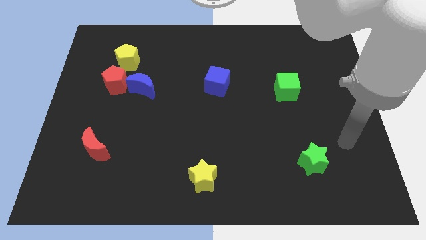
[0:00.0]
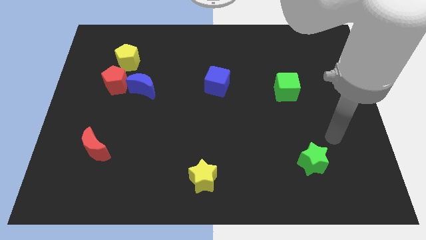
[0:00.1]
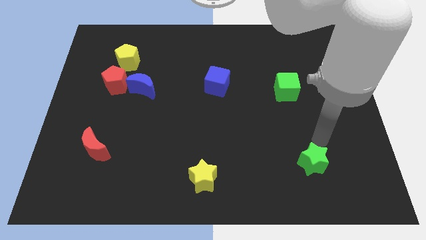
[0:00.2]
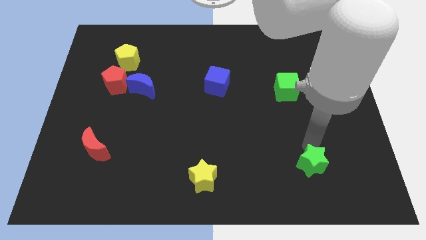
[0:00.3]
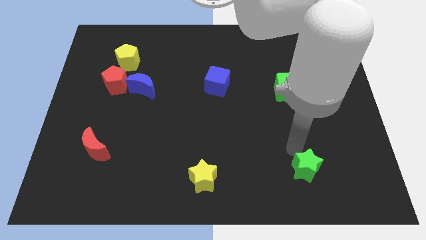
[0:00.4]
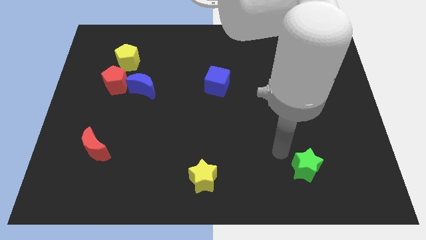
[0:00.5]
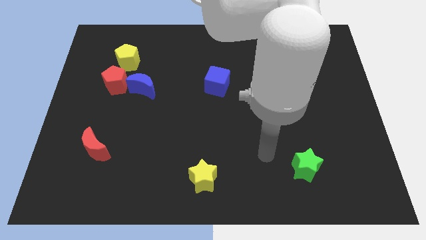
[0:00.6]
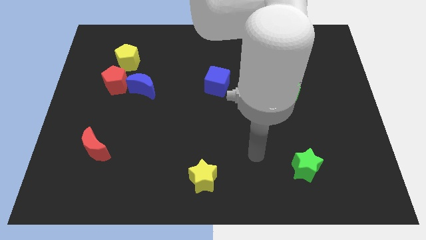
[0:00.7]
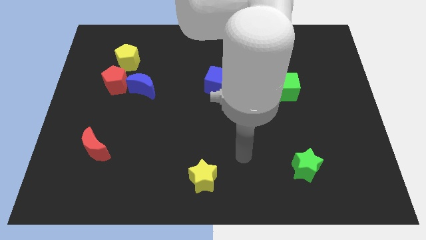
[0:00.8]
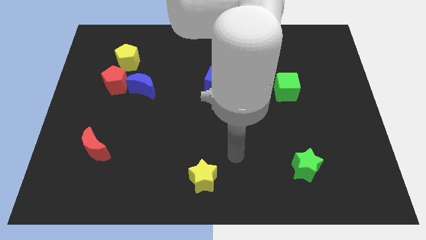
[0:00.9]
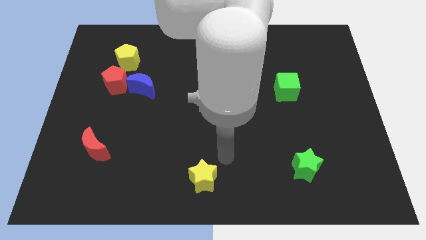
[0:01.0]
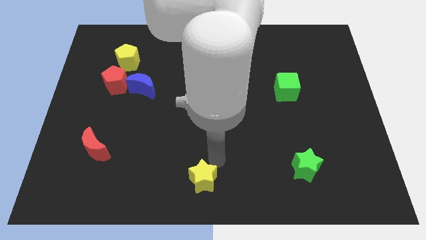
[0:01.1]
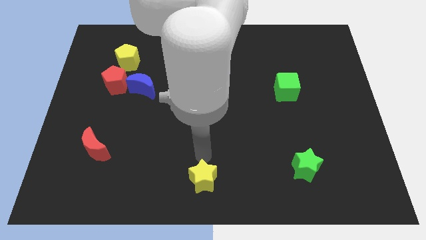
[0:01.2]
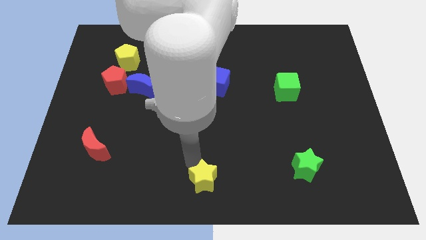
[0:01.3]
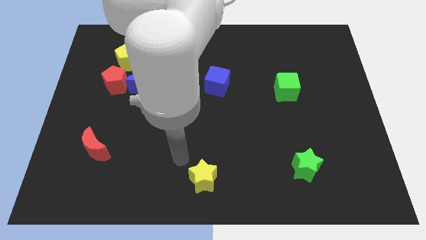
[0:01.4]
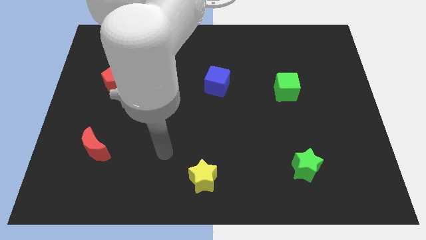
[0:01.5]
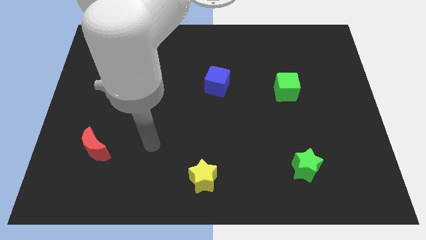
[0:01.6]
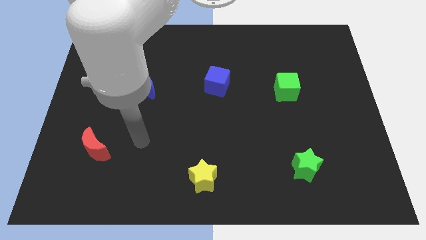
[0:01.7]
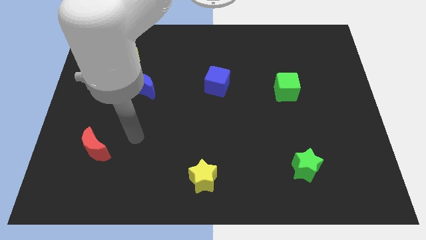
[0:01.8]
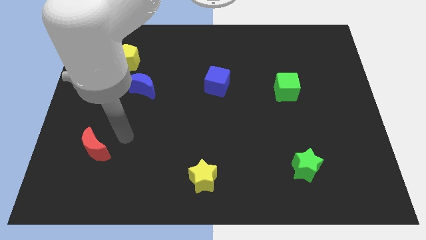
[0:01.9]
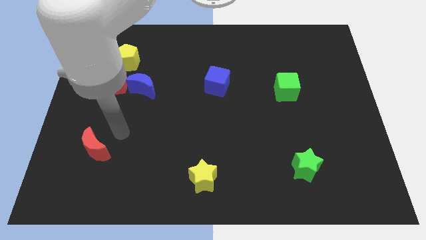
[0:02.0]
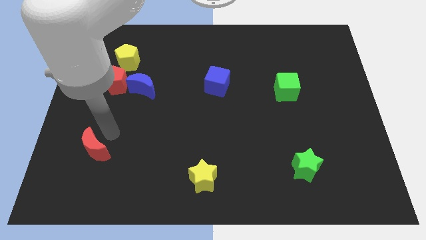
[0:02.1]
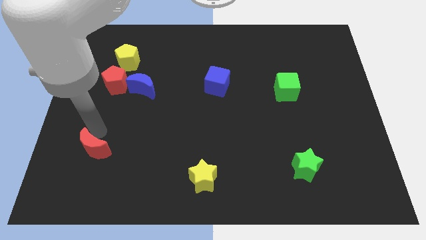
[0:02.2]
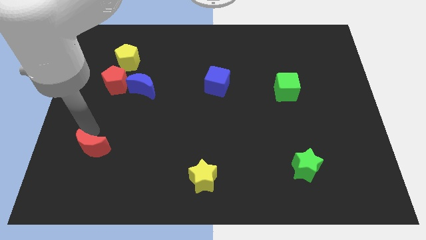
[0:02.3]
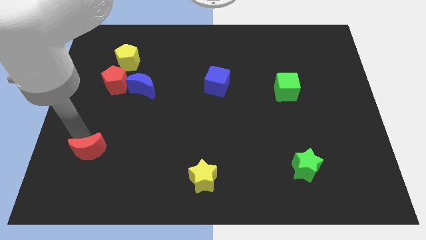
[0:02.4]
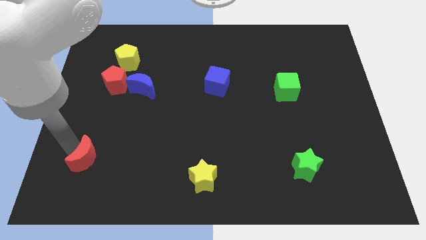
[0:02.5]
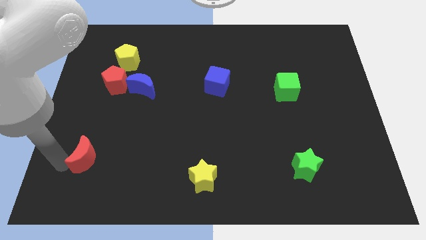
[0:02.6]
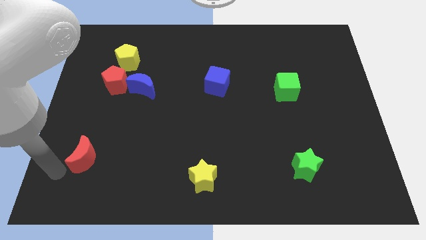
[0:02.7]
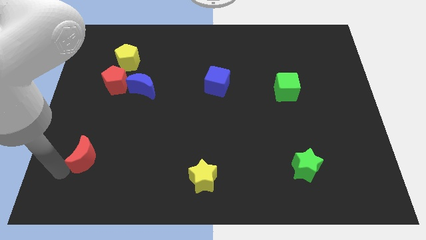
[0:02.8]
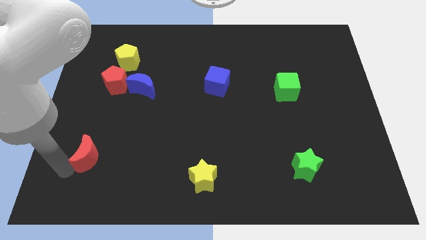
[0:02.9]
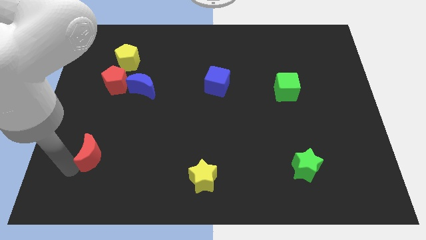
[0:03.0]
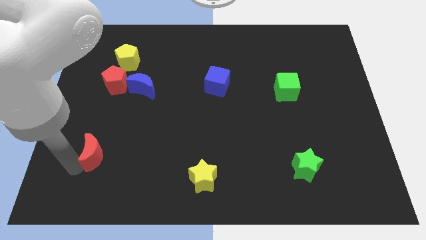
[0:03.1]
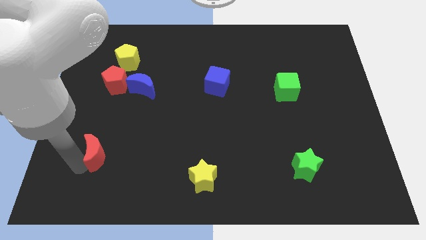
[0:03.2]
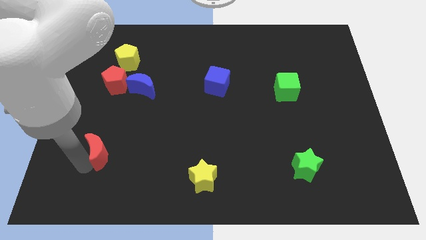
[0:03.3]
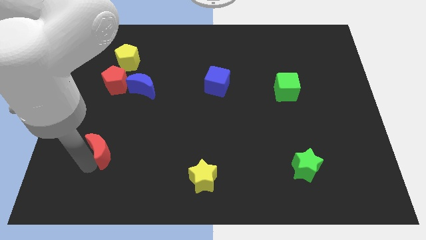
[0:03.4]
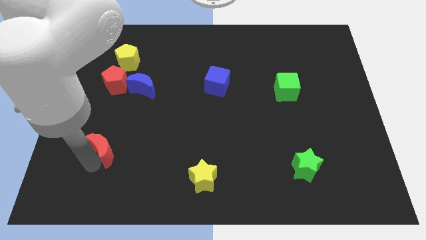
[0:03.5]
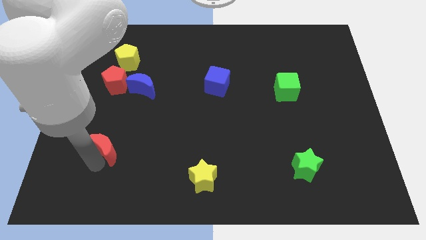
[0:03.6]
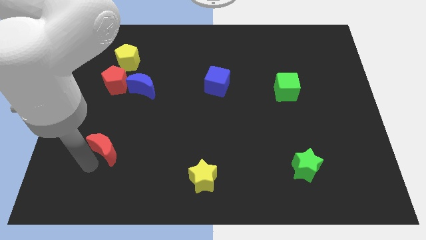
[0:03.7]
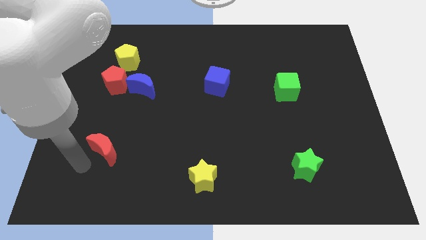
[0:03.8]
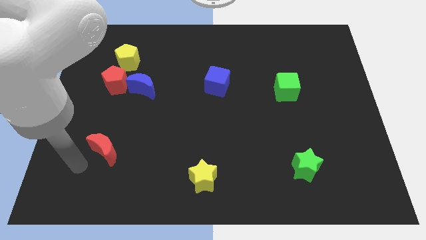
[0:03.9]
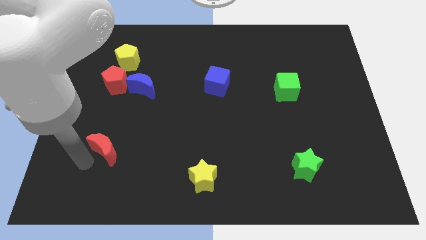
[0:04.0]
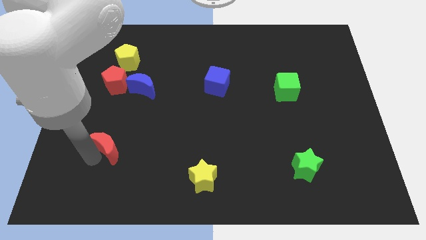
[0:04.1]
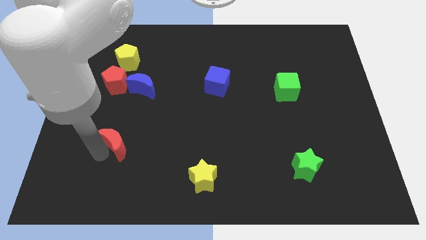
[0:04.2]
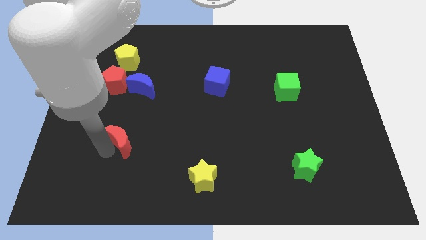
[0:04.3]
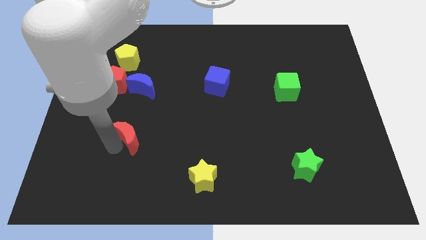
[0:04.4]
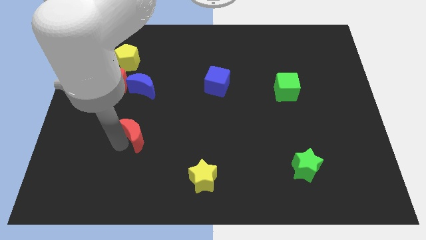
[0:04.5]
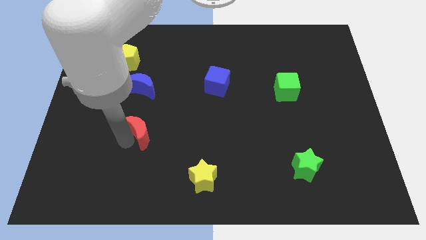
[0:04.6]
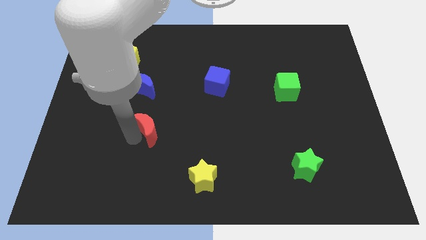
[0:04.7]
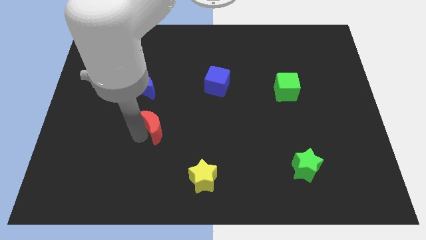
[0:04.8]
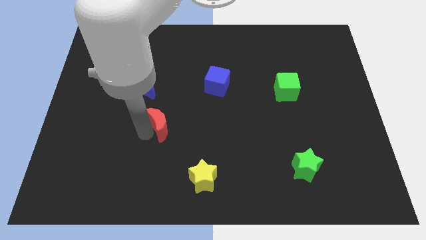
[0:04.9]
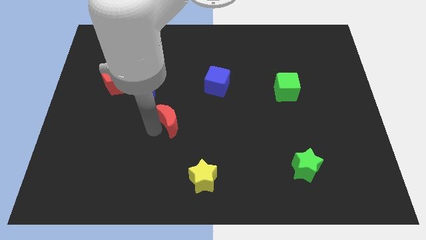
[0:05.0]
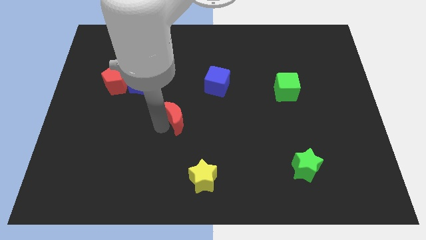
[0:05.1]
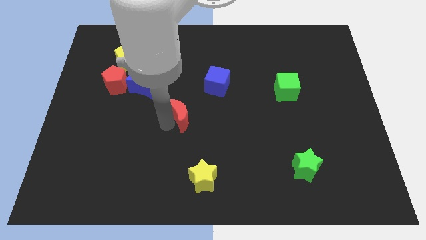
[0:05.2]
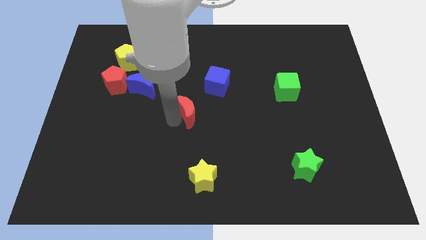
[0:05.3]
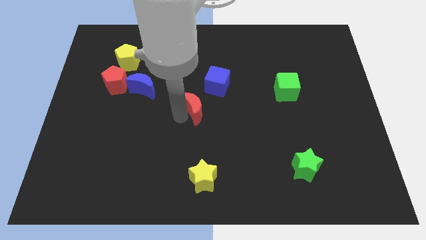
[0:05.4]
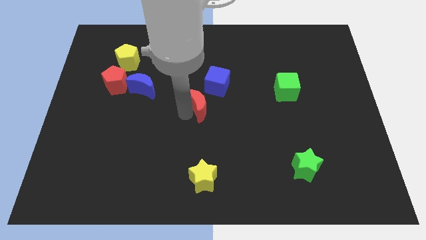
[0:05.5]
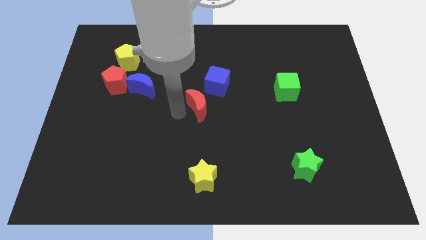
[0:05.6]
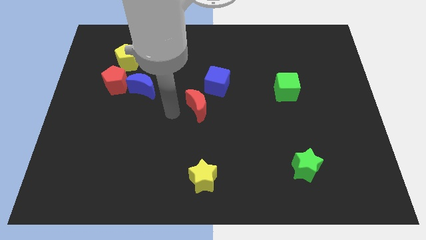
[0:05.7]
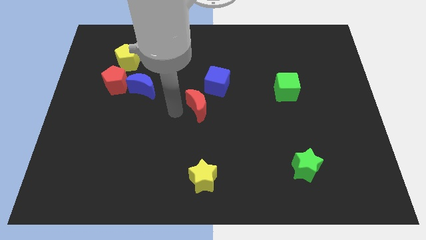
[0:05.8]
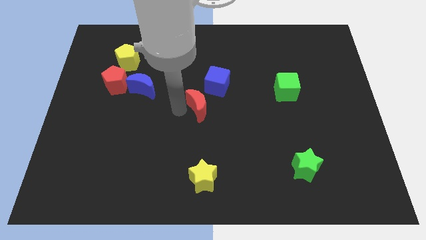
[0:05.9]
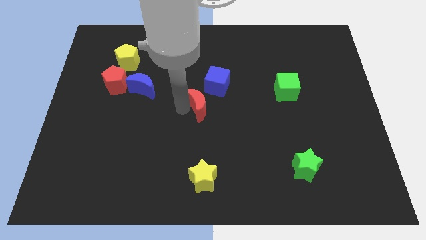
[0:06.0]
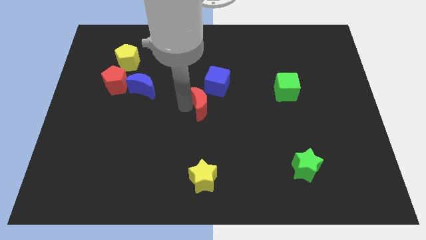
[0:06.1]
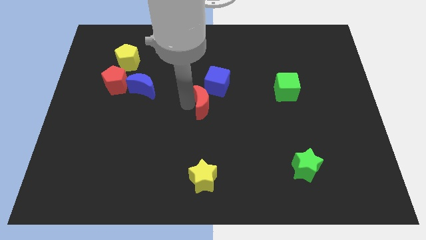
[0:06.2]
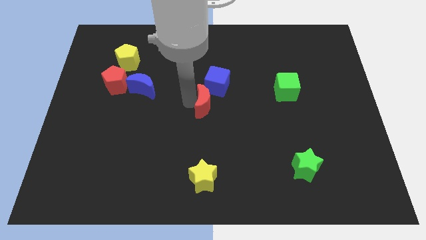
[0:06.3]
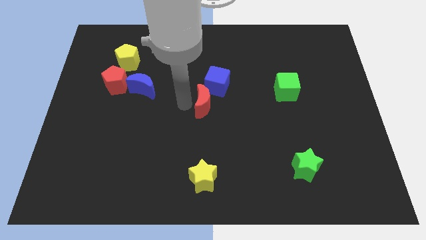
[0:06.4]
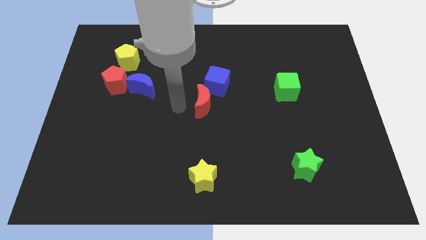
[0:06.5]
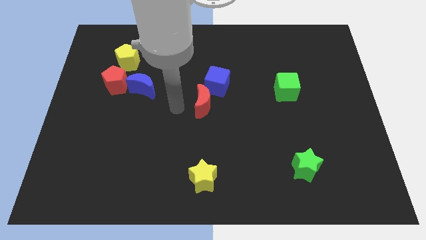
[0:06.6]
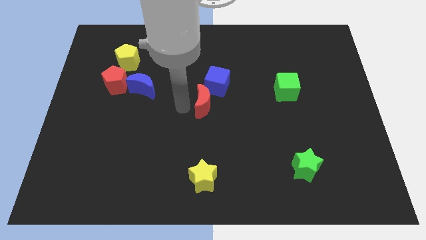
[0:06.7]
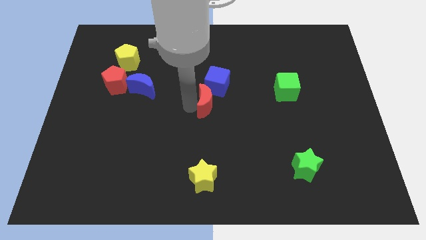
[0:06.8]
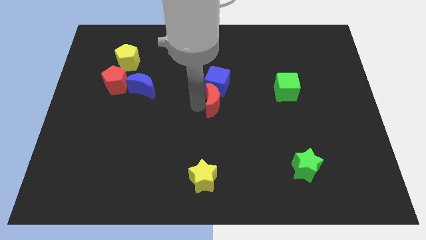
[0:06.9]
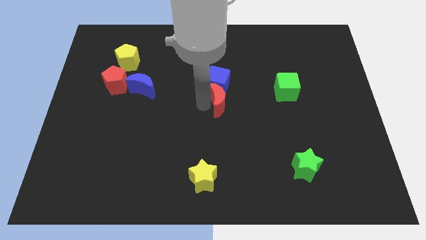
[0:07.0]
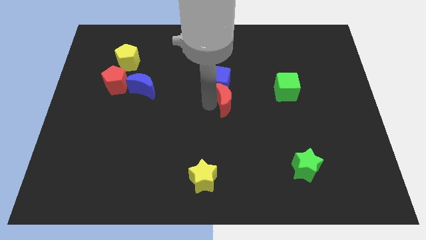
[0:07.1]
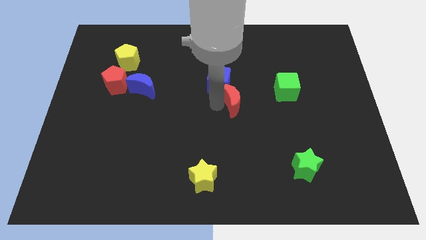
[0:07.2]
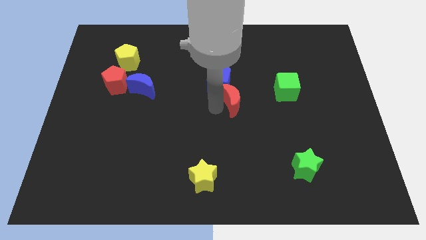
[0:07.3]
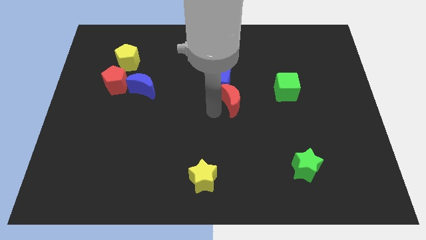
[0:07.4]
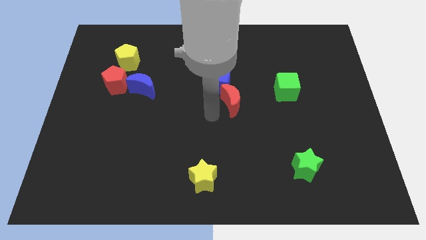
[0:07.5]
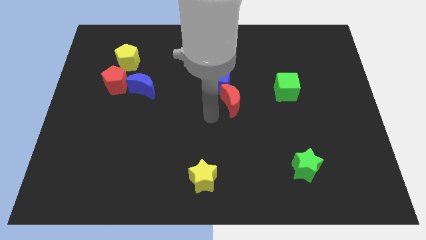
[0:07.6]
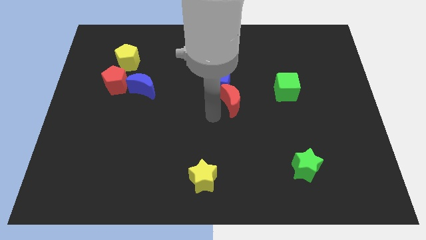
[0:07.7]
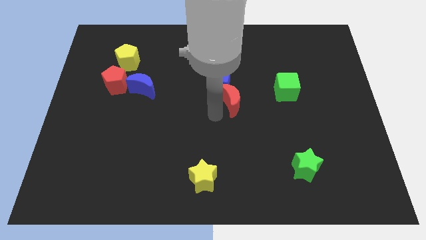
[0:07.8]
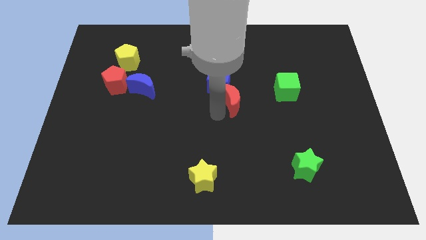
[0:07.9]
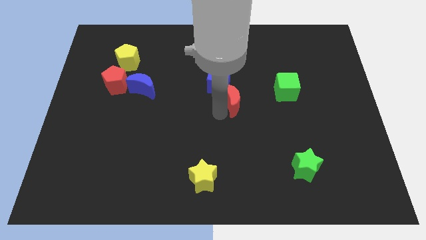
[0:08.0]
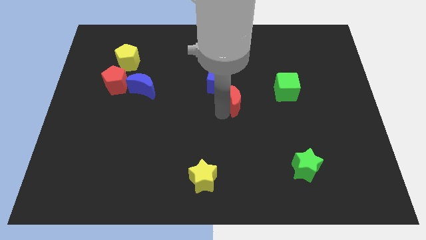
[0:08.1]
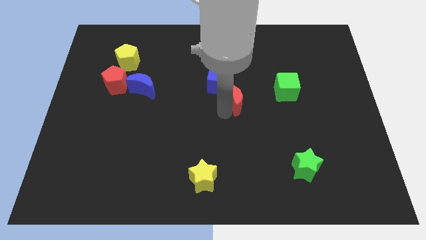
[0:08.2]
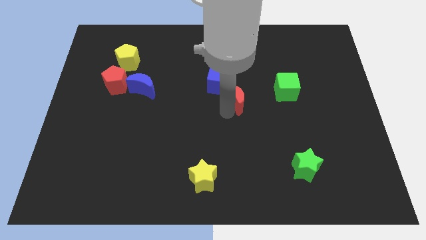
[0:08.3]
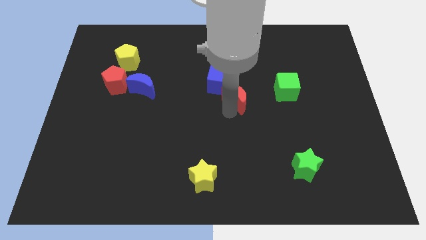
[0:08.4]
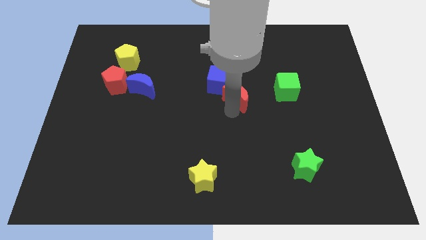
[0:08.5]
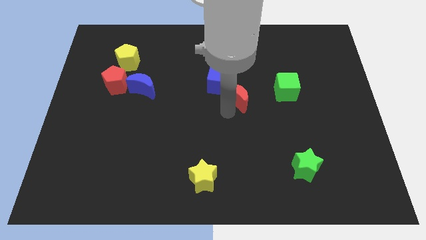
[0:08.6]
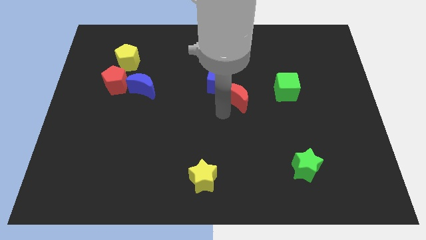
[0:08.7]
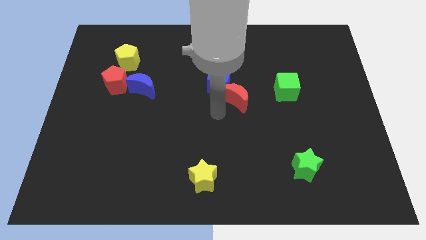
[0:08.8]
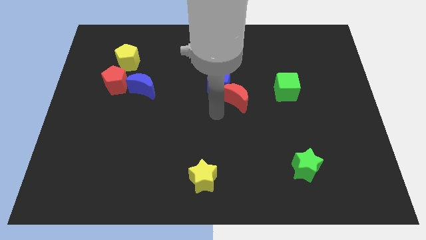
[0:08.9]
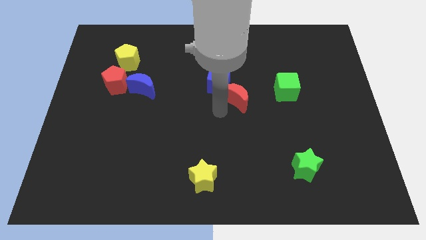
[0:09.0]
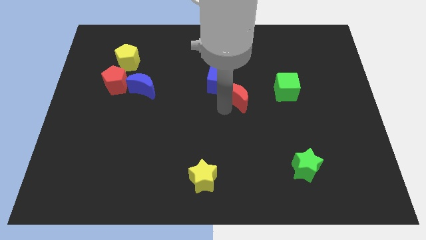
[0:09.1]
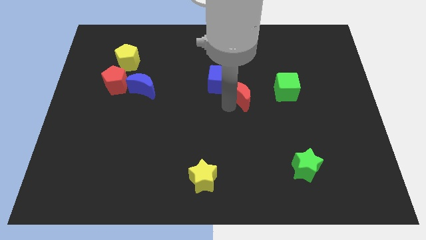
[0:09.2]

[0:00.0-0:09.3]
slide the red moon just right of the blue cube
